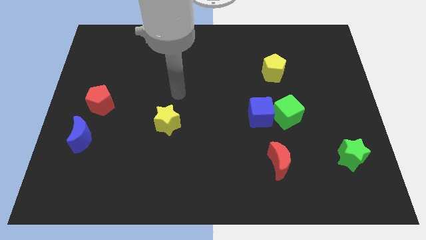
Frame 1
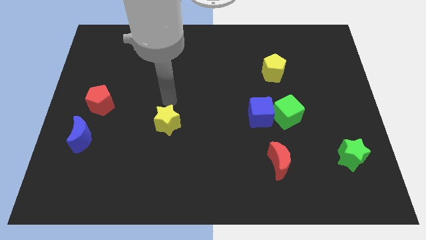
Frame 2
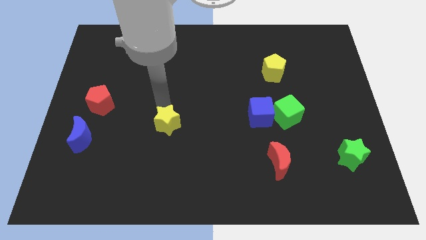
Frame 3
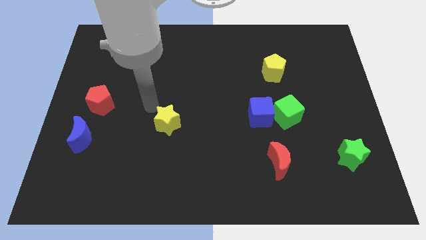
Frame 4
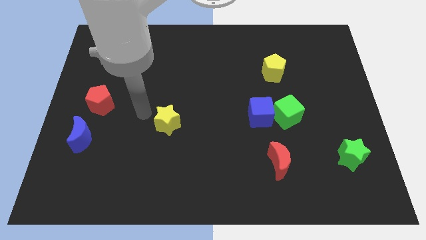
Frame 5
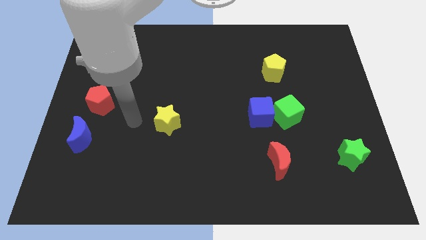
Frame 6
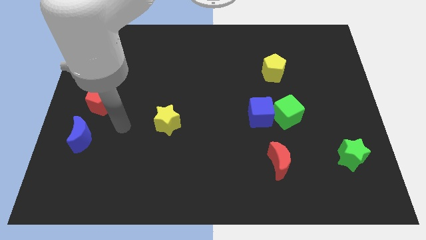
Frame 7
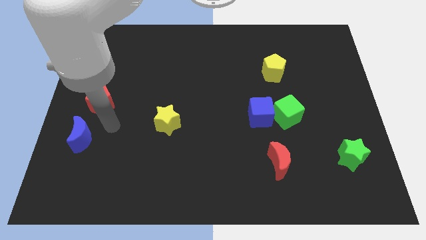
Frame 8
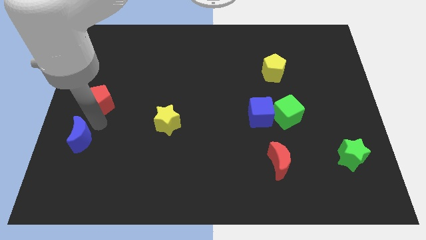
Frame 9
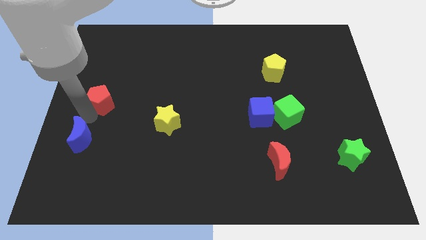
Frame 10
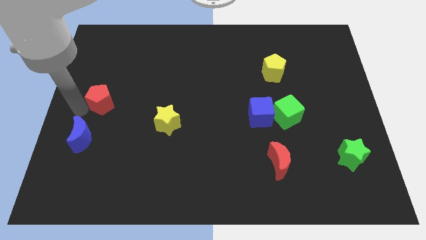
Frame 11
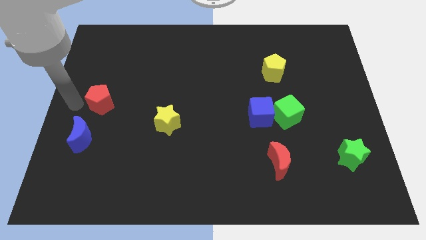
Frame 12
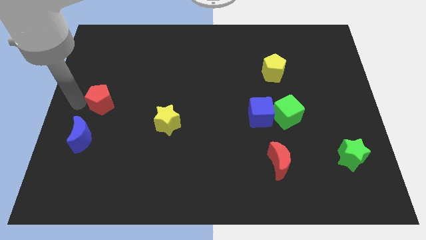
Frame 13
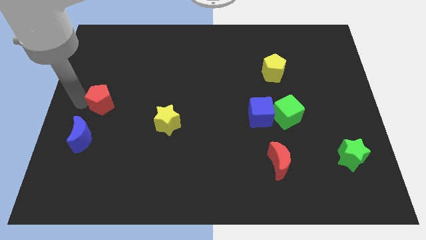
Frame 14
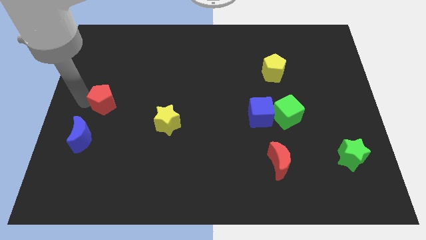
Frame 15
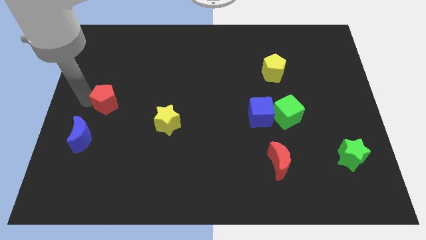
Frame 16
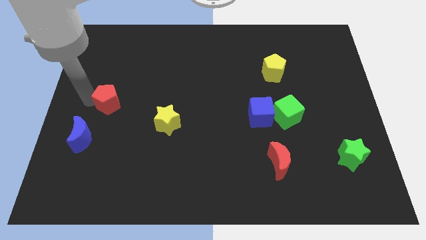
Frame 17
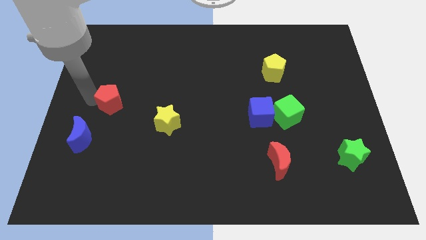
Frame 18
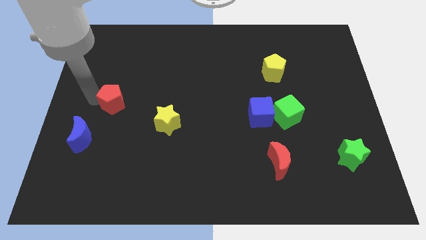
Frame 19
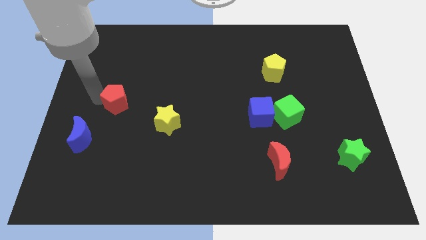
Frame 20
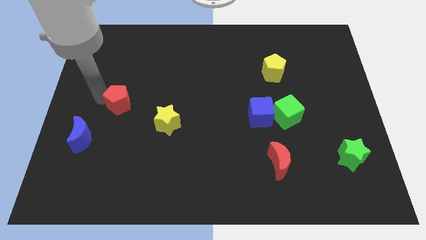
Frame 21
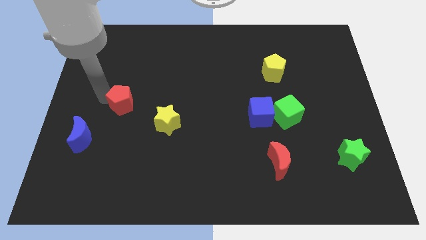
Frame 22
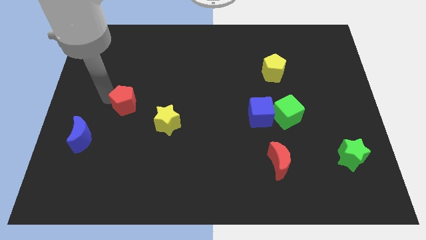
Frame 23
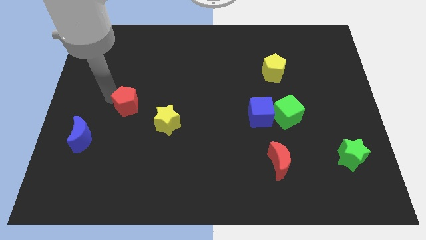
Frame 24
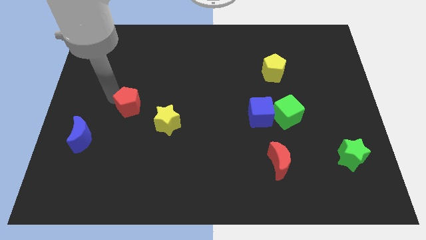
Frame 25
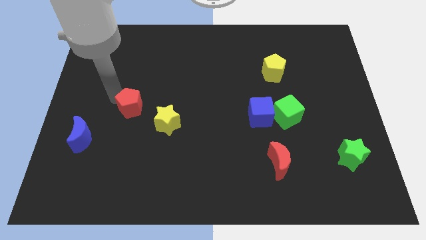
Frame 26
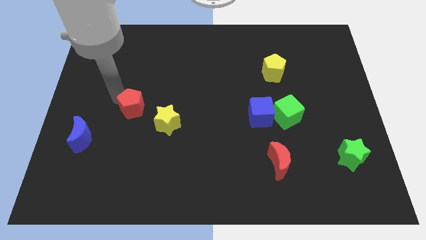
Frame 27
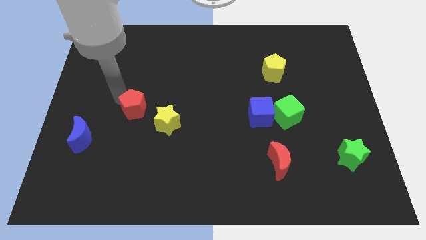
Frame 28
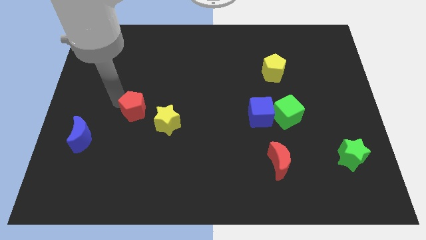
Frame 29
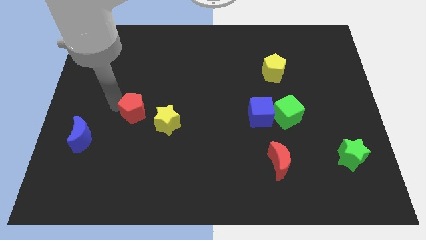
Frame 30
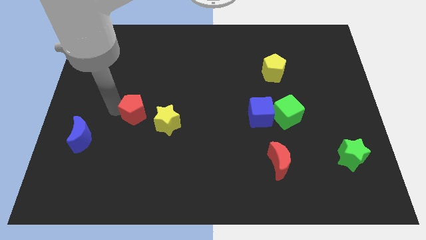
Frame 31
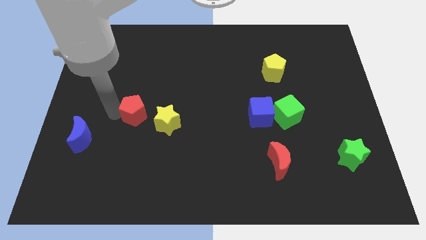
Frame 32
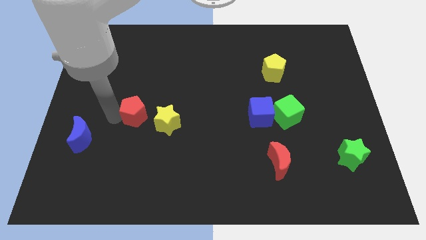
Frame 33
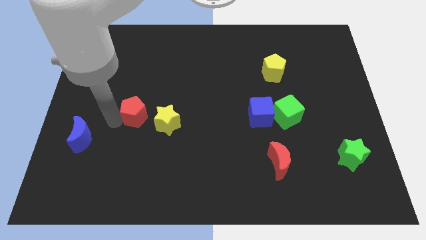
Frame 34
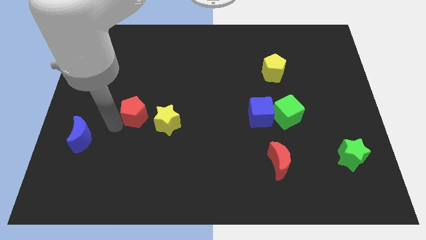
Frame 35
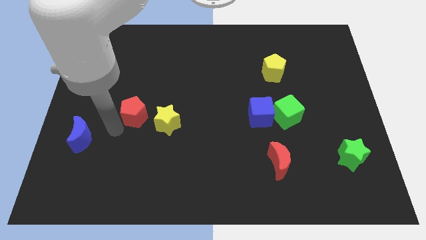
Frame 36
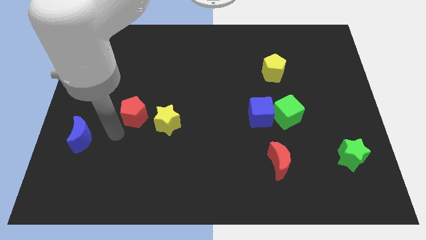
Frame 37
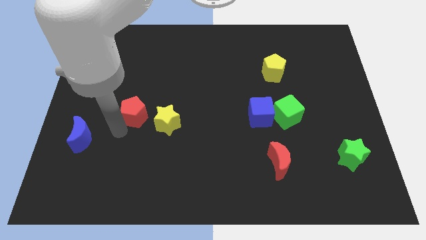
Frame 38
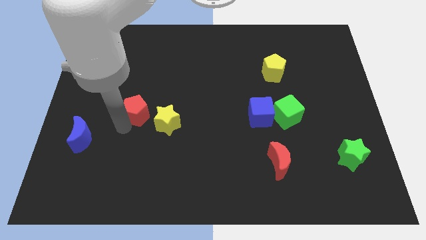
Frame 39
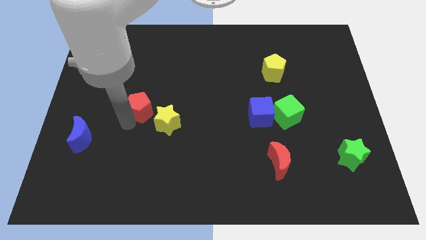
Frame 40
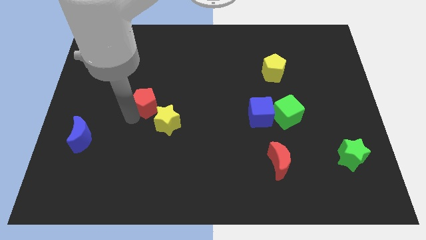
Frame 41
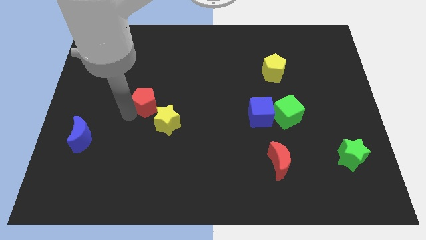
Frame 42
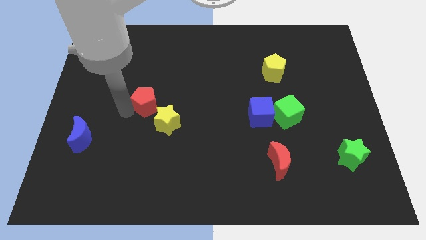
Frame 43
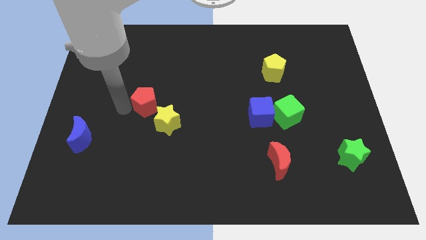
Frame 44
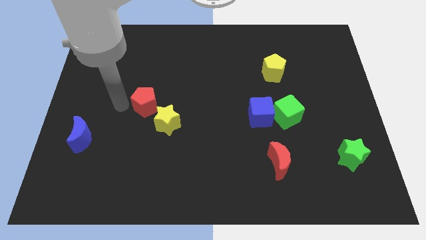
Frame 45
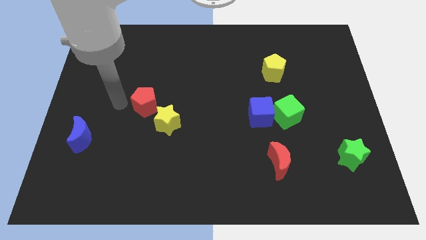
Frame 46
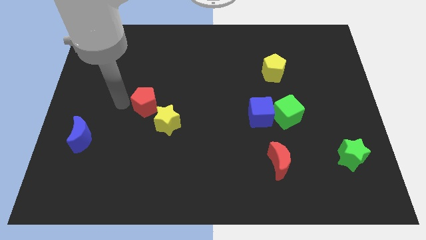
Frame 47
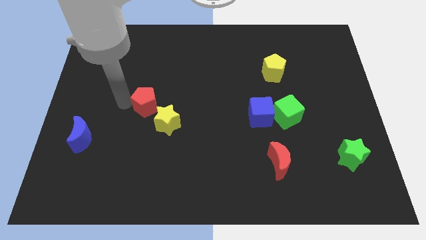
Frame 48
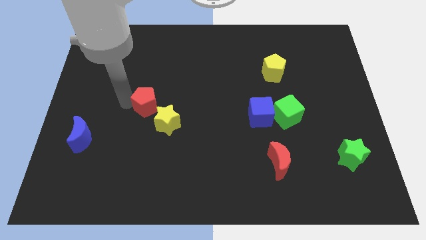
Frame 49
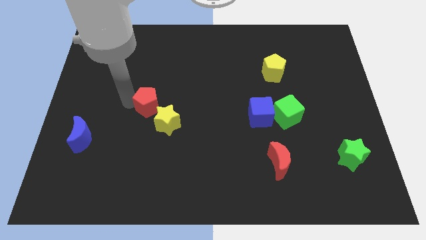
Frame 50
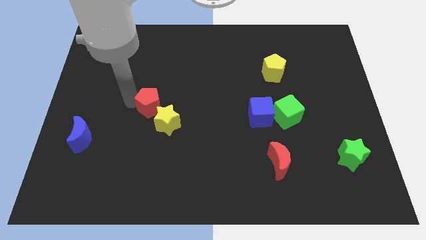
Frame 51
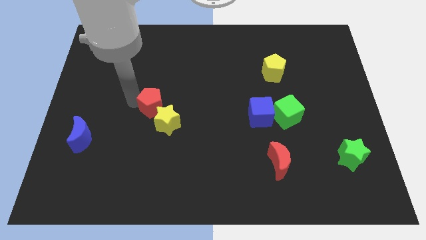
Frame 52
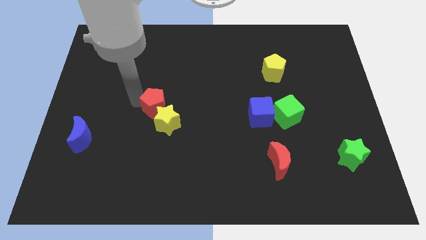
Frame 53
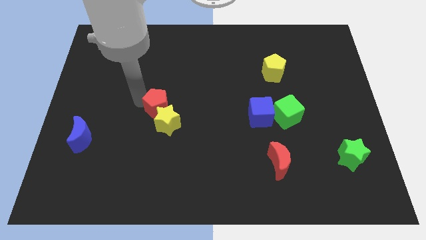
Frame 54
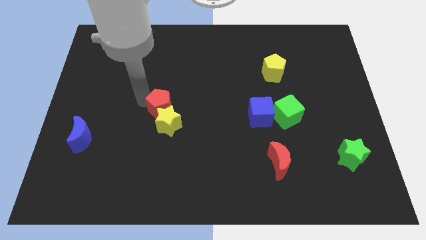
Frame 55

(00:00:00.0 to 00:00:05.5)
push the red pentagon to the center of the board

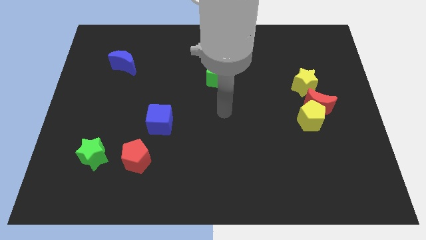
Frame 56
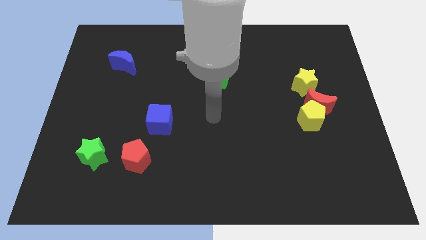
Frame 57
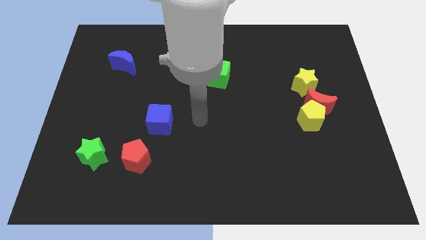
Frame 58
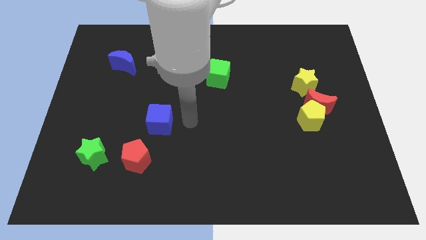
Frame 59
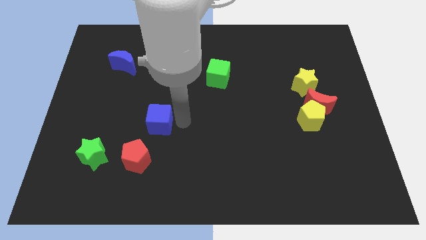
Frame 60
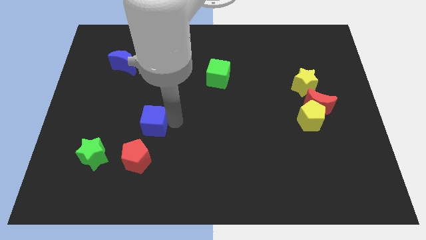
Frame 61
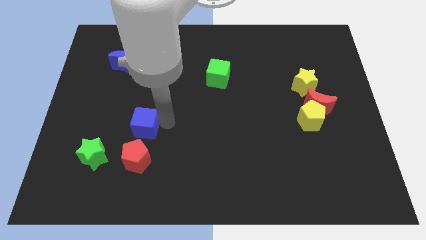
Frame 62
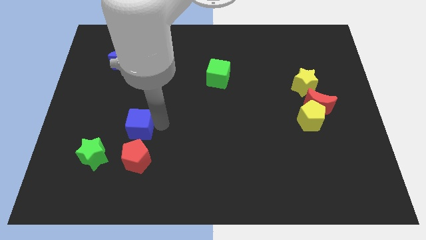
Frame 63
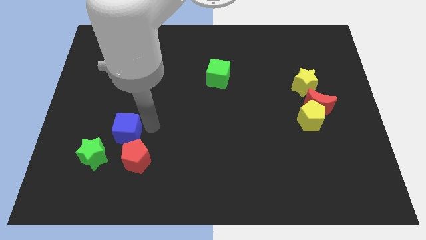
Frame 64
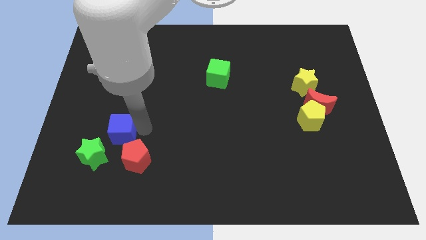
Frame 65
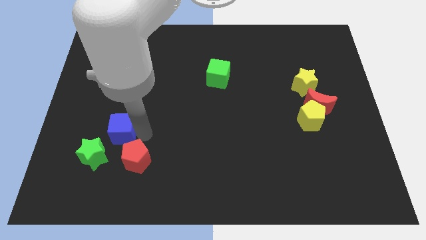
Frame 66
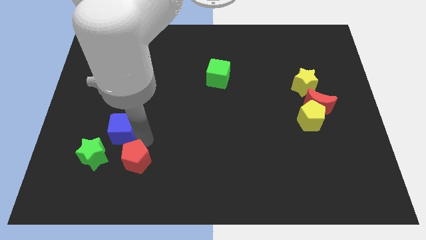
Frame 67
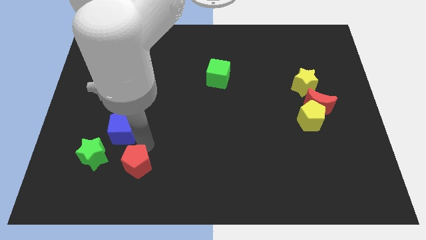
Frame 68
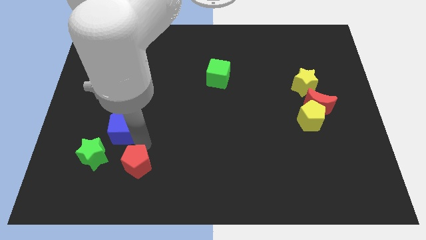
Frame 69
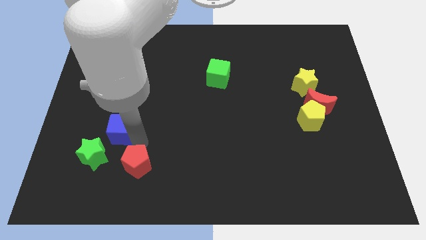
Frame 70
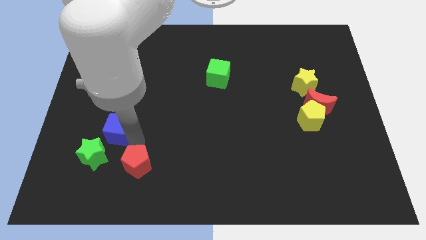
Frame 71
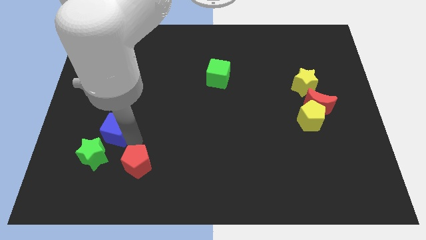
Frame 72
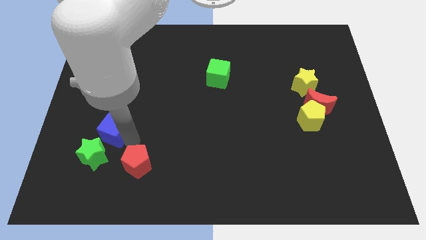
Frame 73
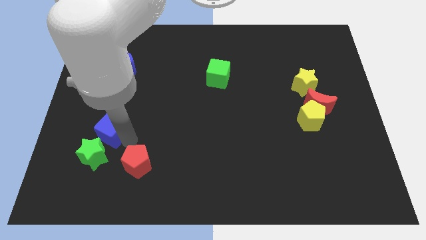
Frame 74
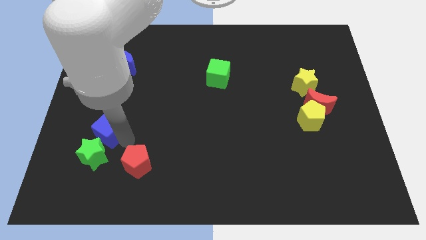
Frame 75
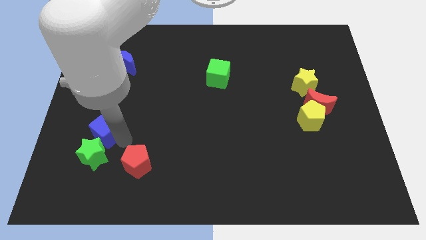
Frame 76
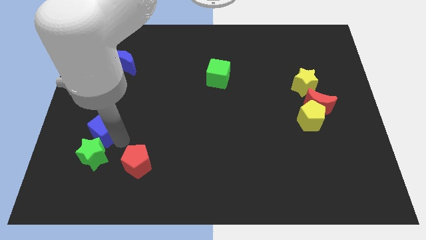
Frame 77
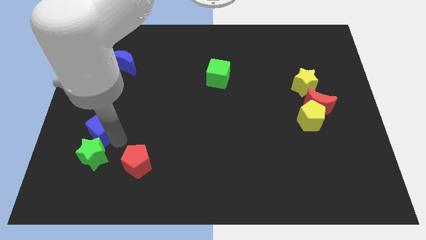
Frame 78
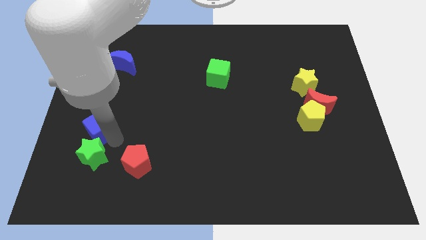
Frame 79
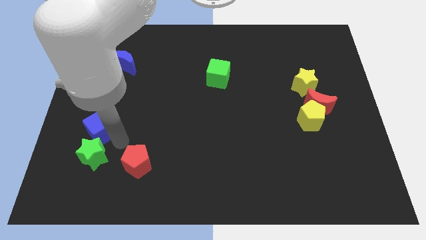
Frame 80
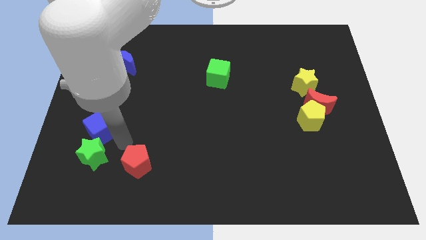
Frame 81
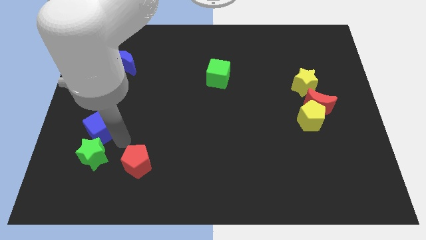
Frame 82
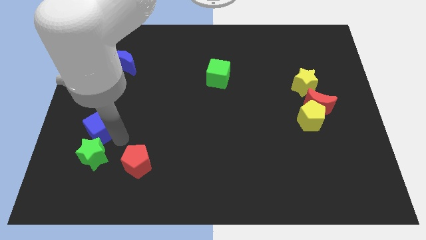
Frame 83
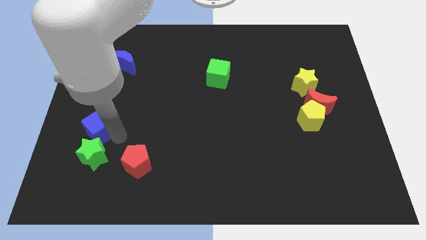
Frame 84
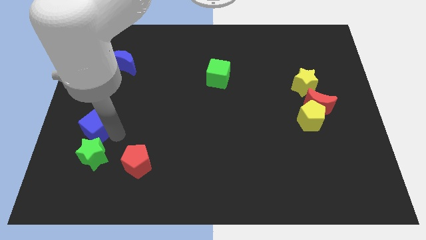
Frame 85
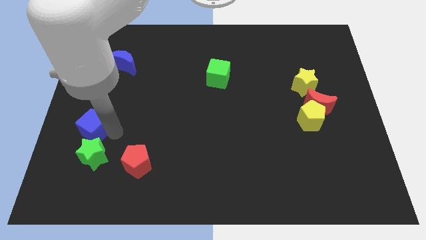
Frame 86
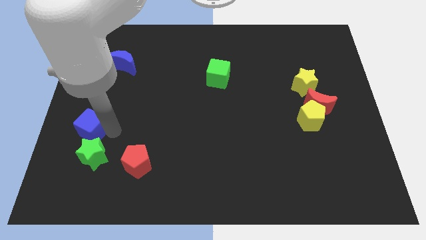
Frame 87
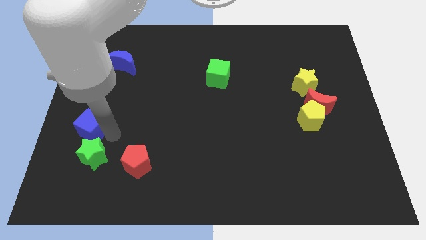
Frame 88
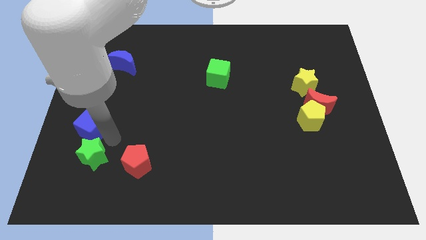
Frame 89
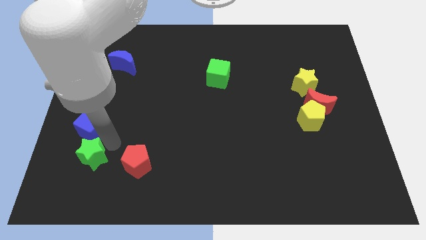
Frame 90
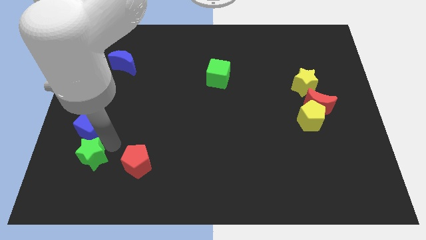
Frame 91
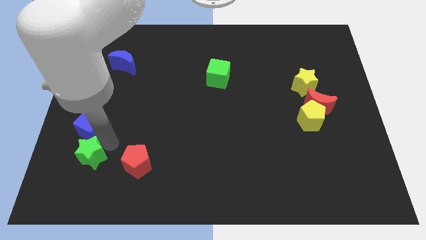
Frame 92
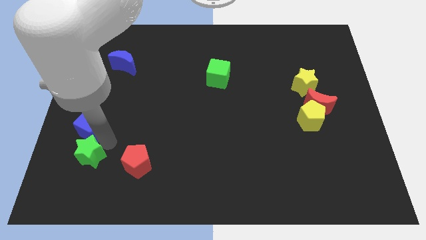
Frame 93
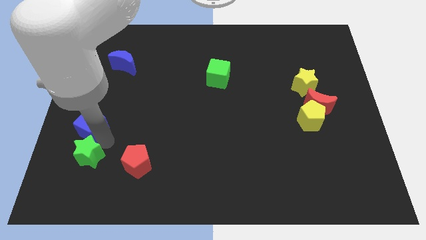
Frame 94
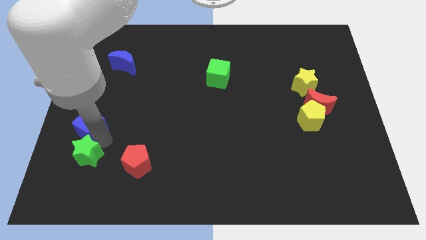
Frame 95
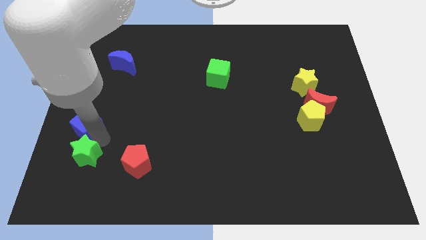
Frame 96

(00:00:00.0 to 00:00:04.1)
put the blue cube to the left side
